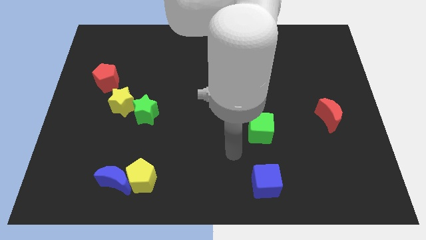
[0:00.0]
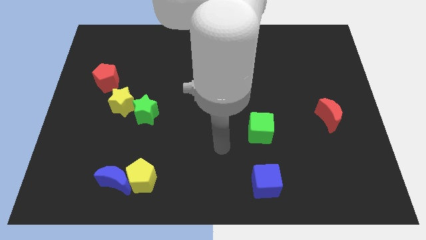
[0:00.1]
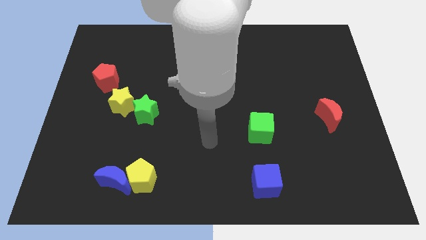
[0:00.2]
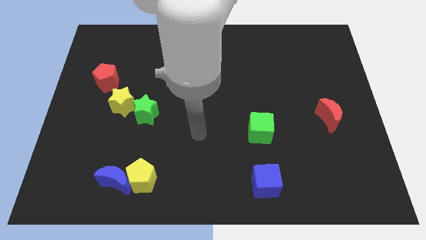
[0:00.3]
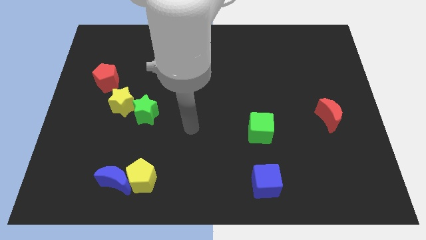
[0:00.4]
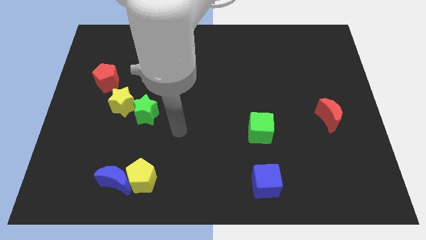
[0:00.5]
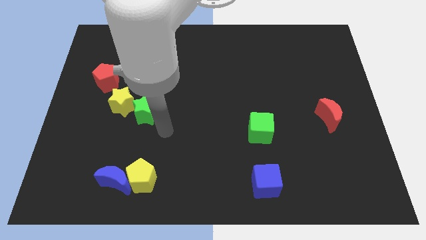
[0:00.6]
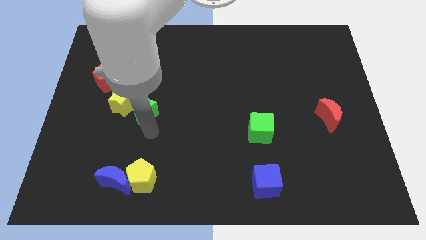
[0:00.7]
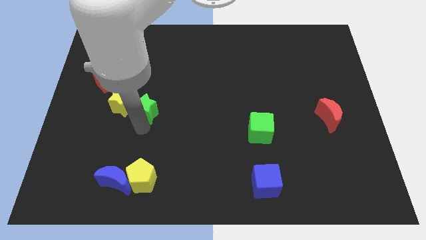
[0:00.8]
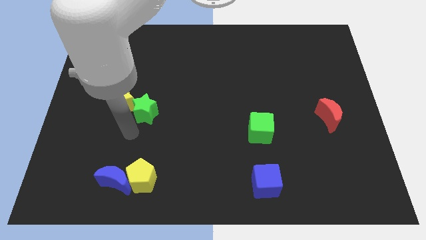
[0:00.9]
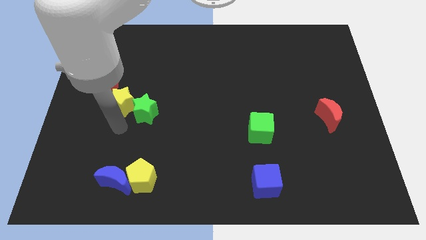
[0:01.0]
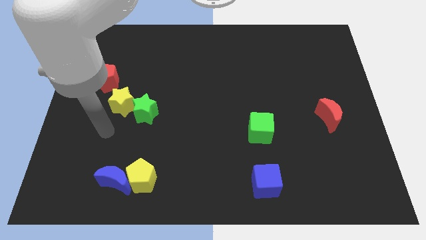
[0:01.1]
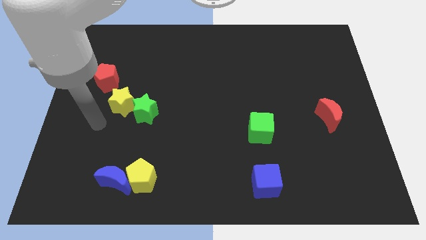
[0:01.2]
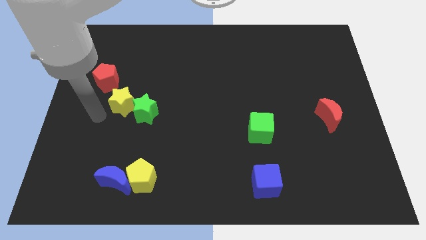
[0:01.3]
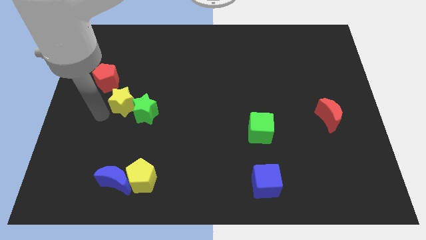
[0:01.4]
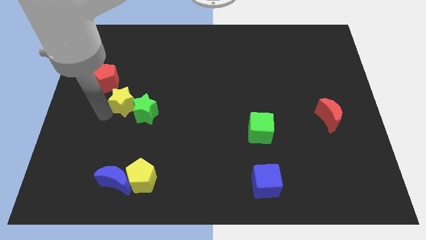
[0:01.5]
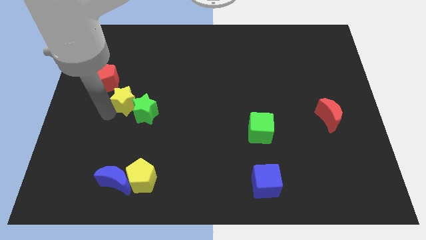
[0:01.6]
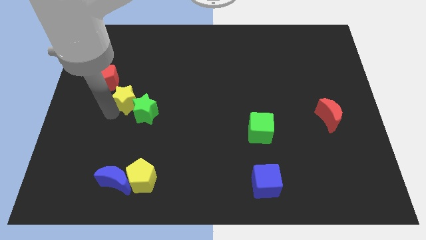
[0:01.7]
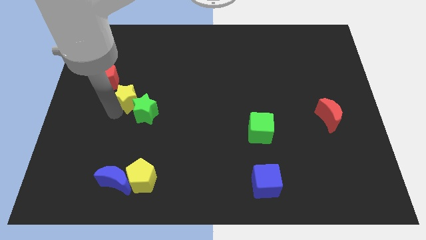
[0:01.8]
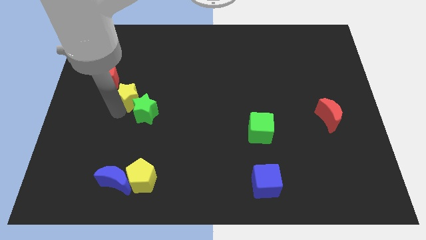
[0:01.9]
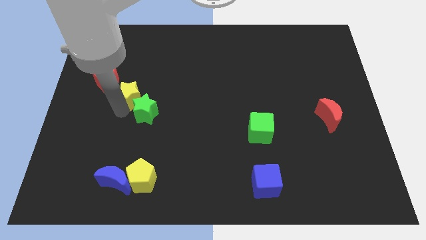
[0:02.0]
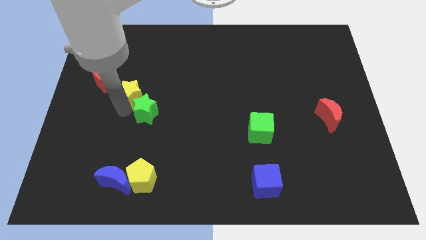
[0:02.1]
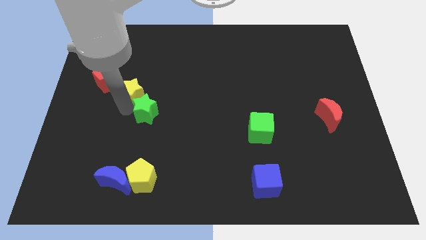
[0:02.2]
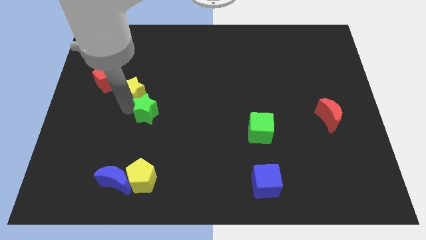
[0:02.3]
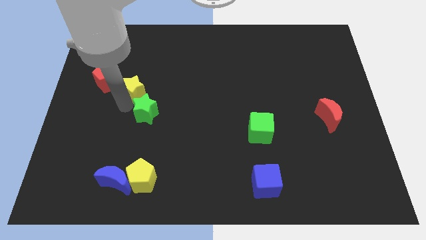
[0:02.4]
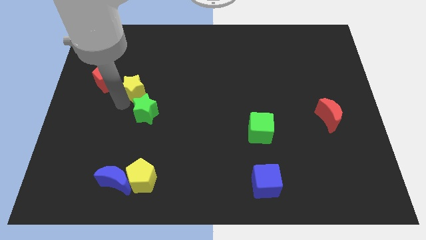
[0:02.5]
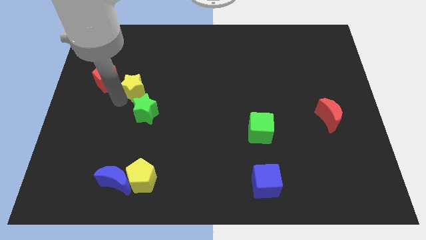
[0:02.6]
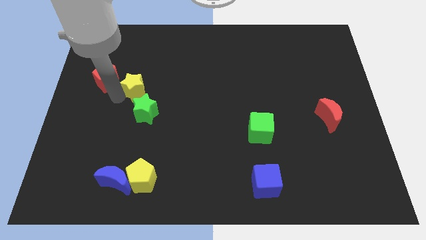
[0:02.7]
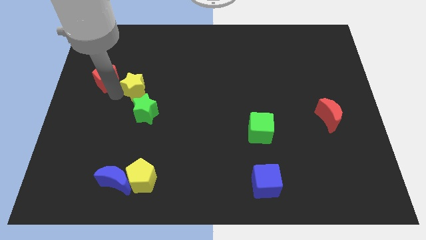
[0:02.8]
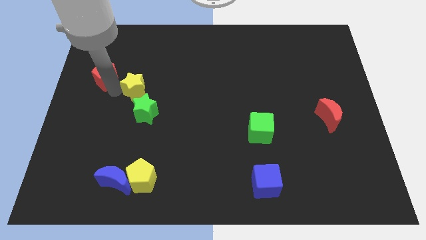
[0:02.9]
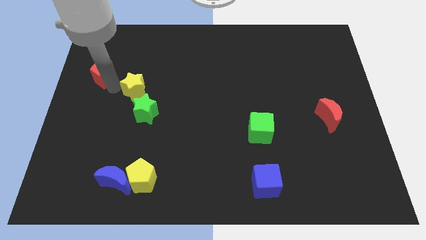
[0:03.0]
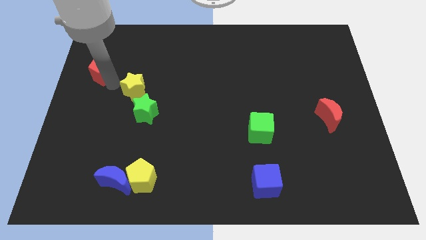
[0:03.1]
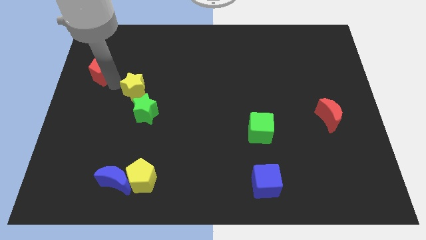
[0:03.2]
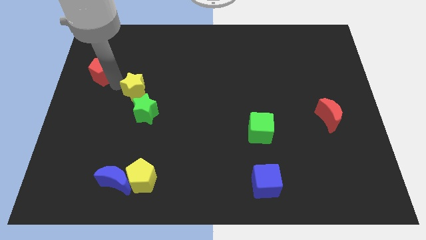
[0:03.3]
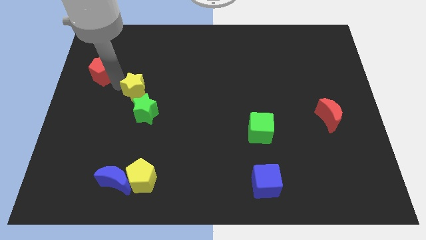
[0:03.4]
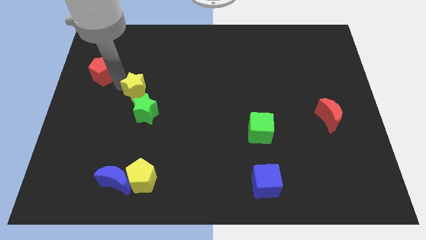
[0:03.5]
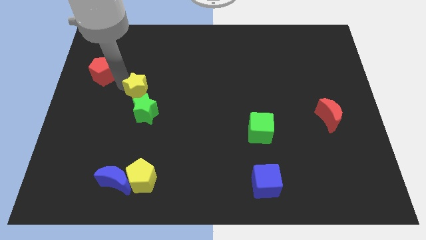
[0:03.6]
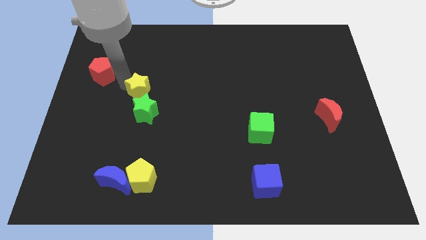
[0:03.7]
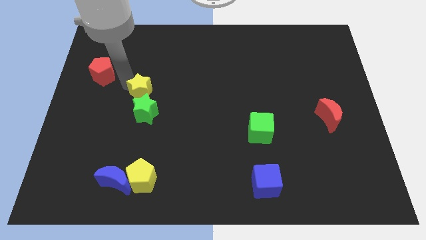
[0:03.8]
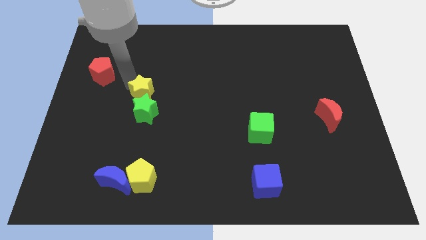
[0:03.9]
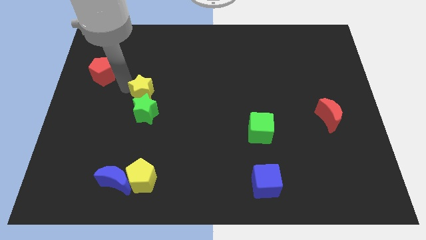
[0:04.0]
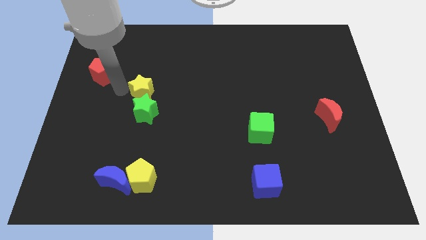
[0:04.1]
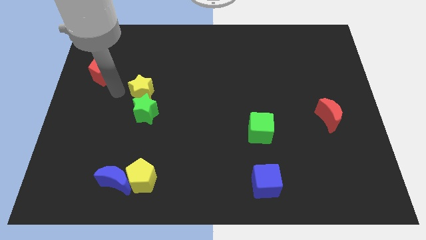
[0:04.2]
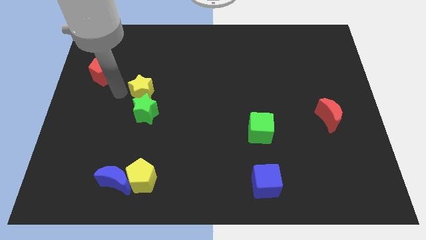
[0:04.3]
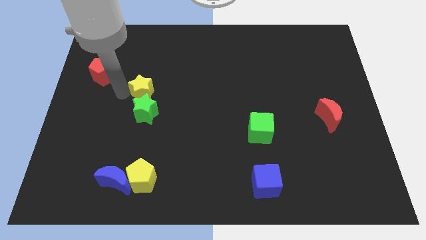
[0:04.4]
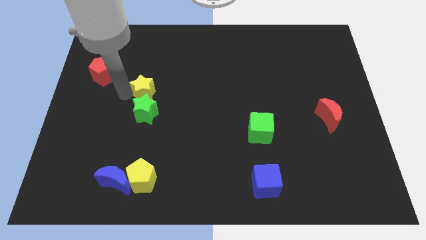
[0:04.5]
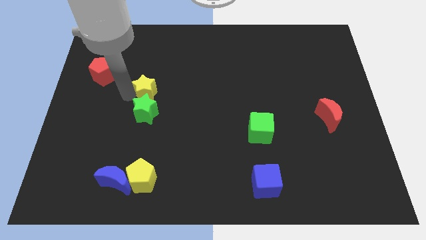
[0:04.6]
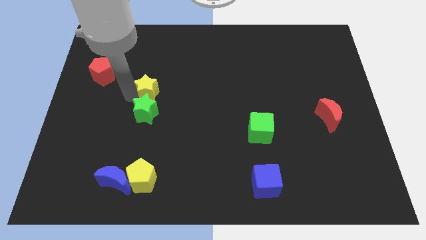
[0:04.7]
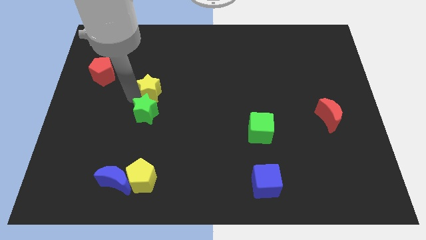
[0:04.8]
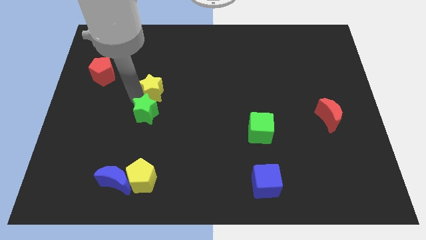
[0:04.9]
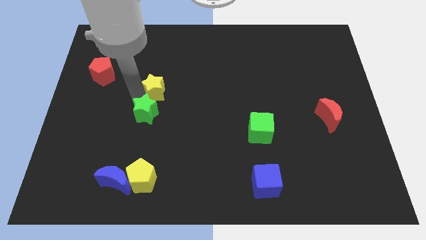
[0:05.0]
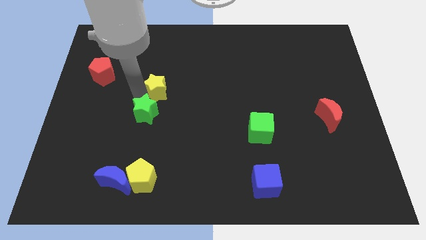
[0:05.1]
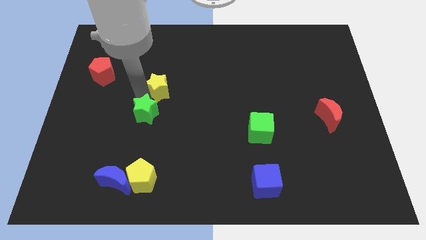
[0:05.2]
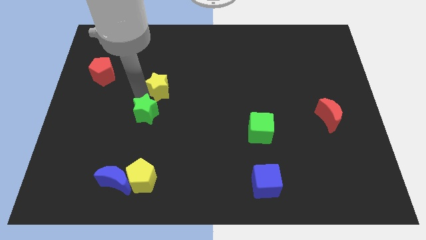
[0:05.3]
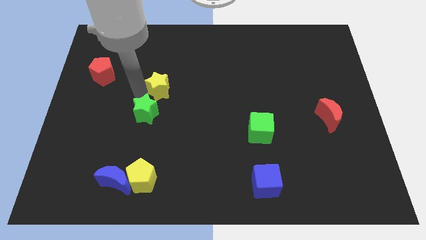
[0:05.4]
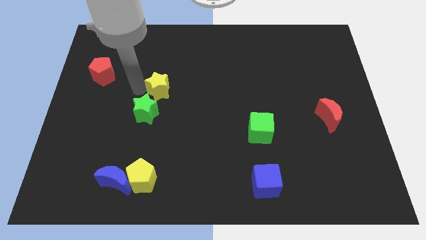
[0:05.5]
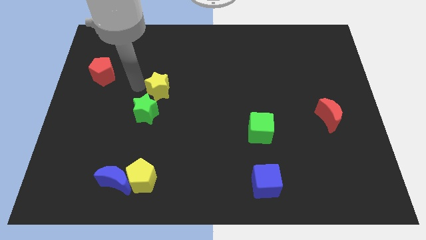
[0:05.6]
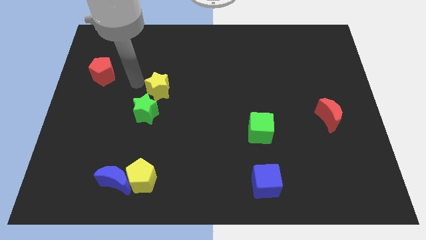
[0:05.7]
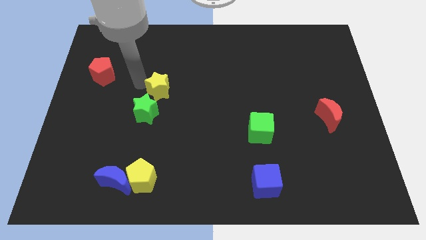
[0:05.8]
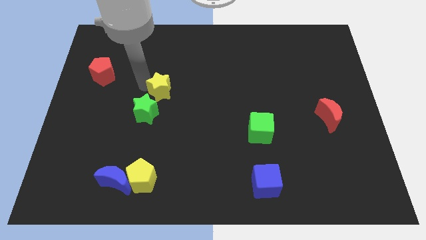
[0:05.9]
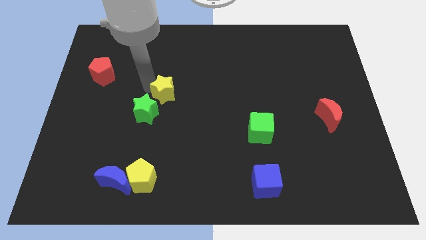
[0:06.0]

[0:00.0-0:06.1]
move the yellow star to the center
